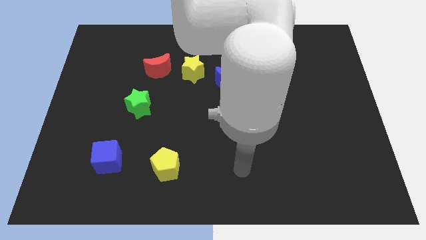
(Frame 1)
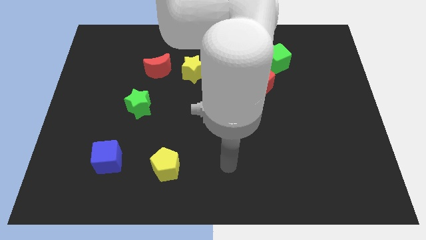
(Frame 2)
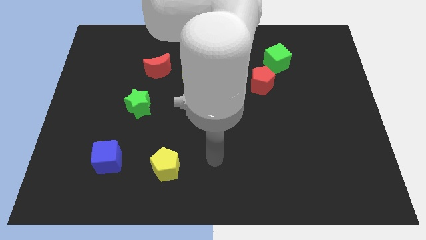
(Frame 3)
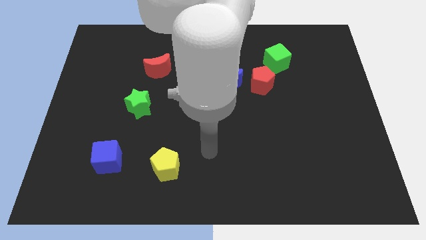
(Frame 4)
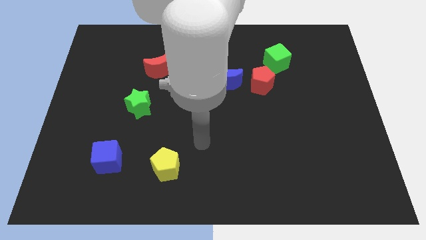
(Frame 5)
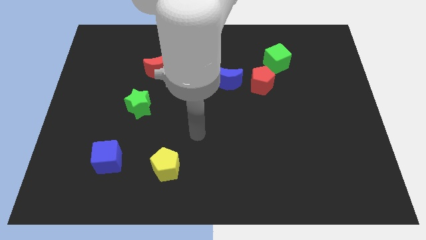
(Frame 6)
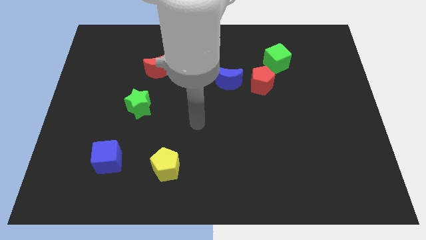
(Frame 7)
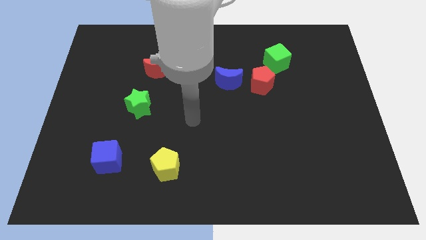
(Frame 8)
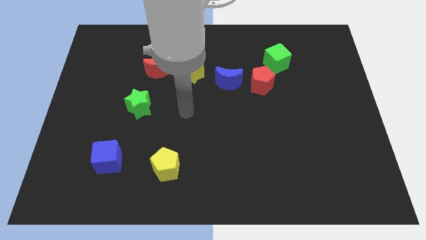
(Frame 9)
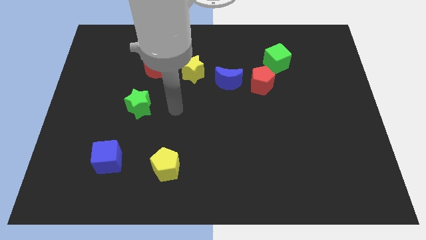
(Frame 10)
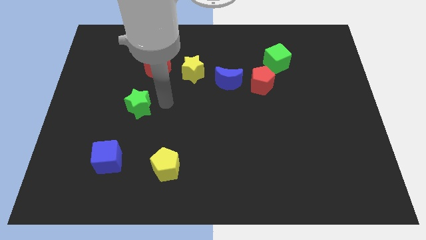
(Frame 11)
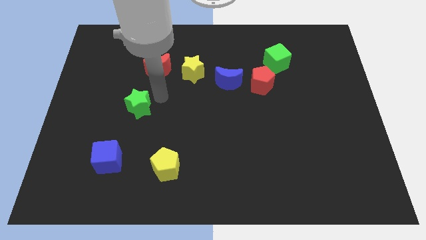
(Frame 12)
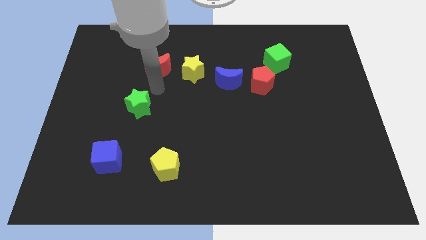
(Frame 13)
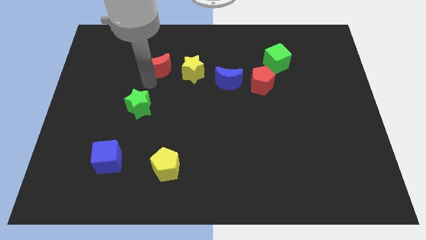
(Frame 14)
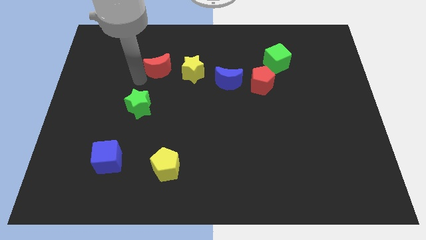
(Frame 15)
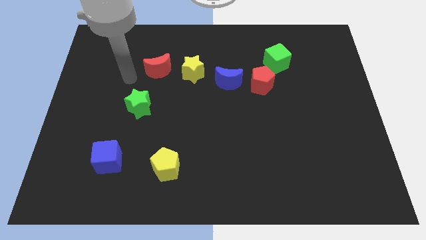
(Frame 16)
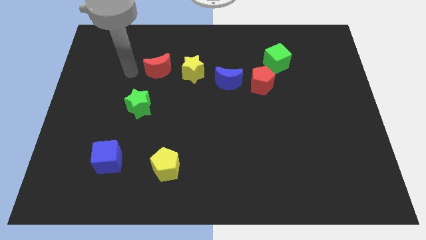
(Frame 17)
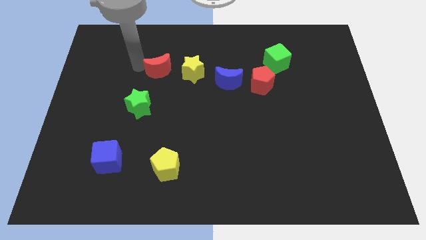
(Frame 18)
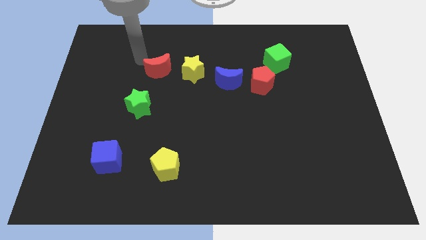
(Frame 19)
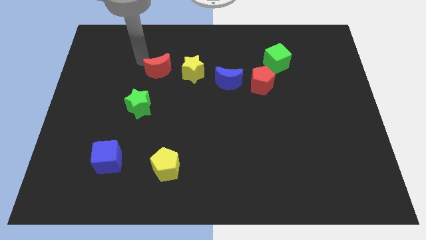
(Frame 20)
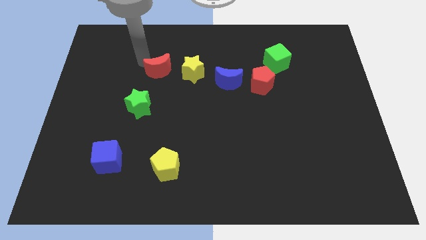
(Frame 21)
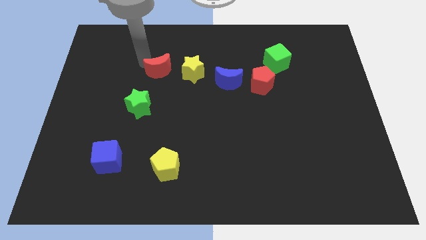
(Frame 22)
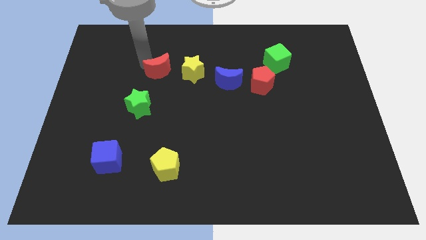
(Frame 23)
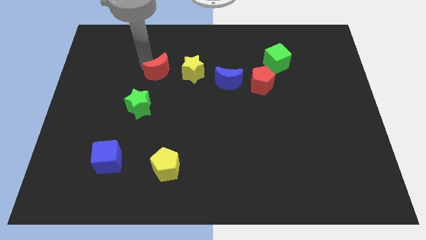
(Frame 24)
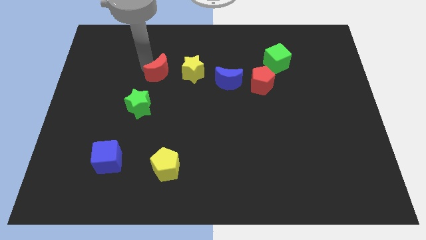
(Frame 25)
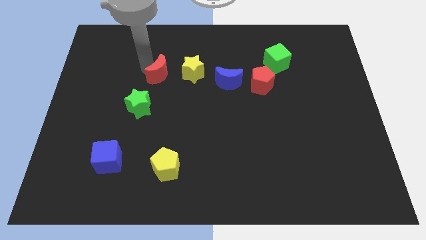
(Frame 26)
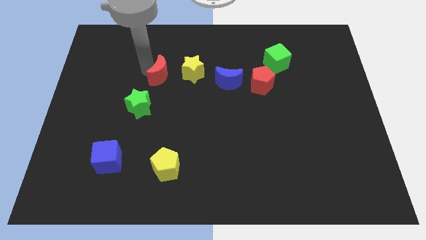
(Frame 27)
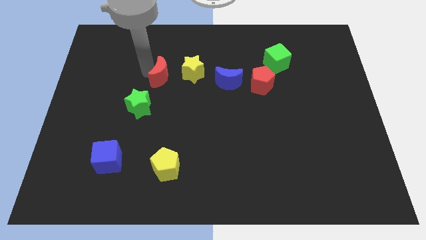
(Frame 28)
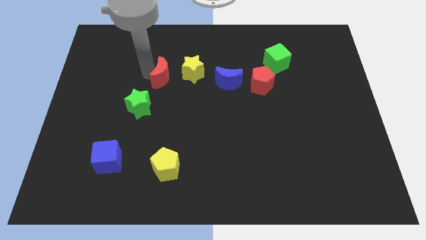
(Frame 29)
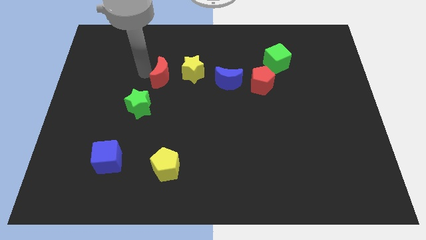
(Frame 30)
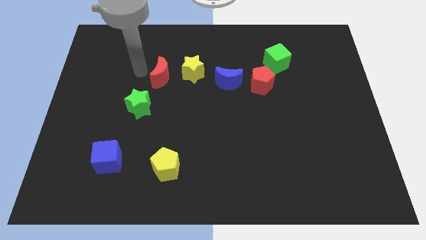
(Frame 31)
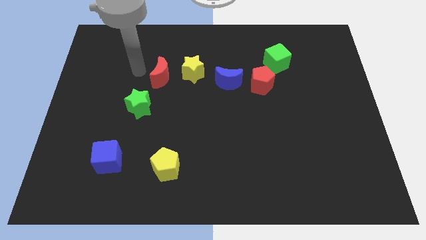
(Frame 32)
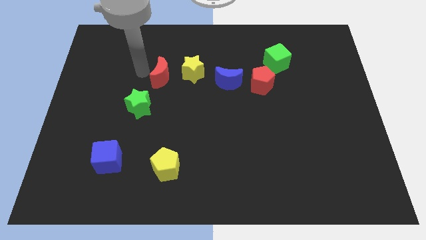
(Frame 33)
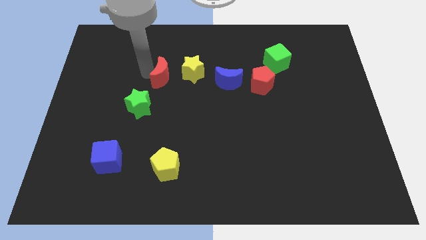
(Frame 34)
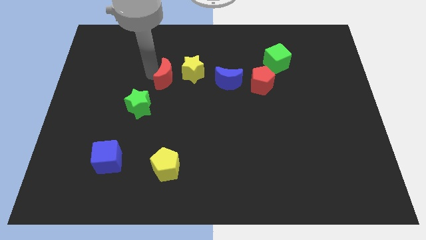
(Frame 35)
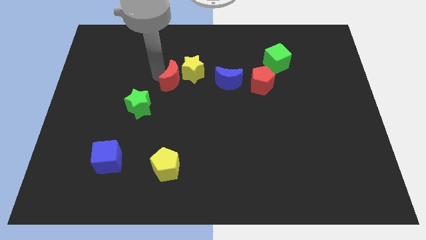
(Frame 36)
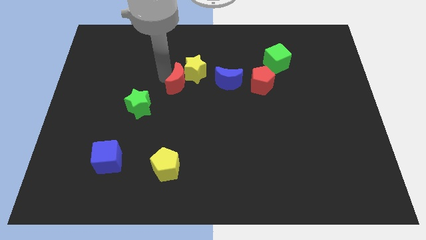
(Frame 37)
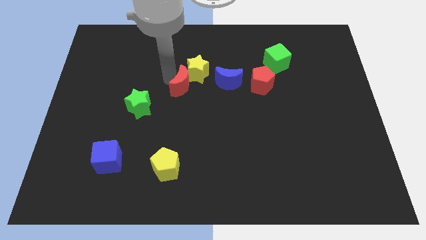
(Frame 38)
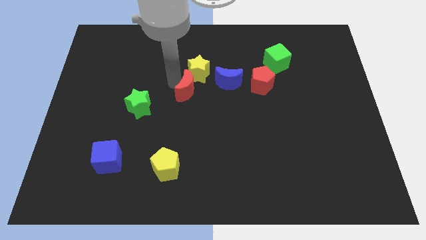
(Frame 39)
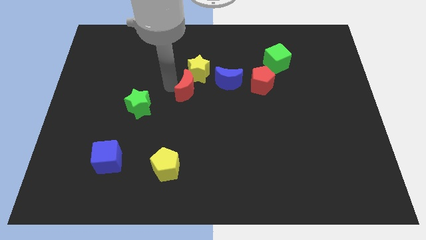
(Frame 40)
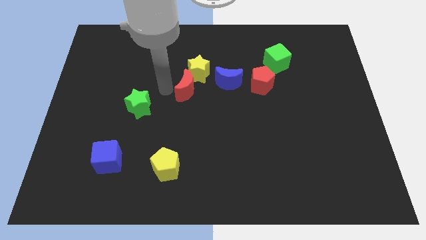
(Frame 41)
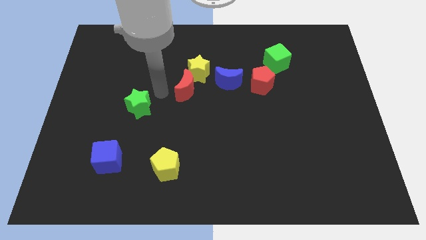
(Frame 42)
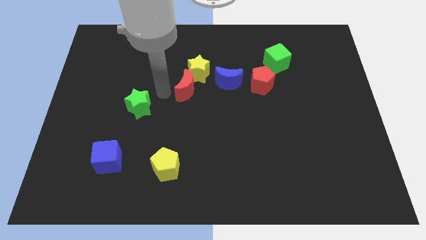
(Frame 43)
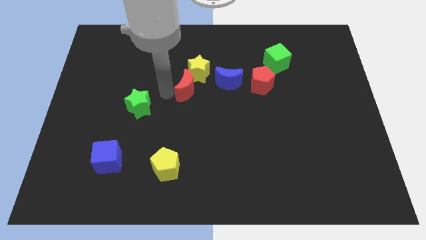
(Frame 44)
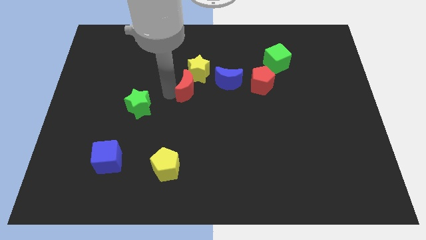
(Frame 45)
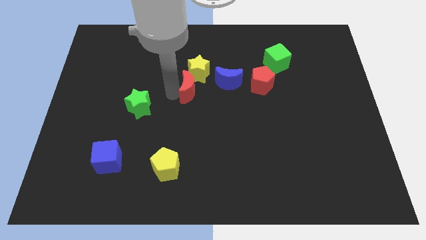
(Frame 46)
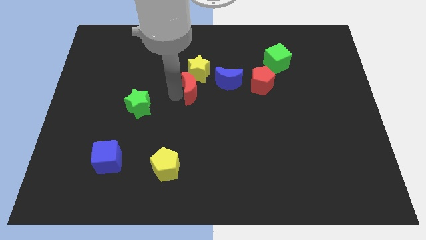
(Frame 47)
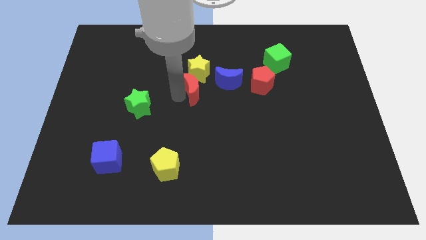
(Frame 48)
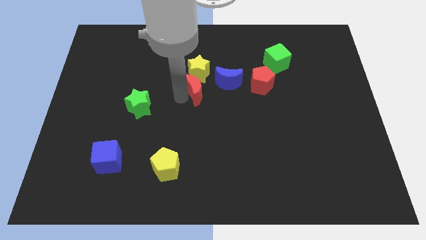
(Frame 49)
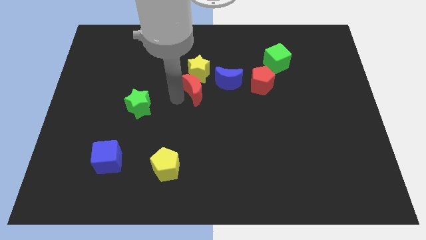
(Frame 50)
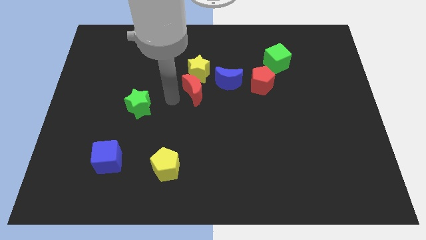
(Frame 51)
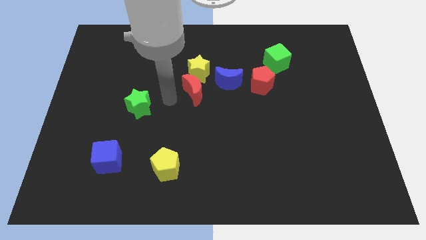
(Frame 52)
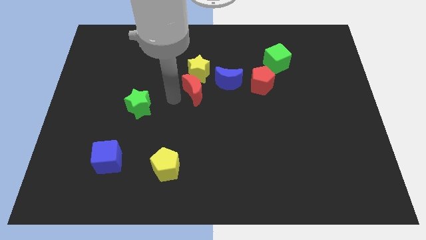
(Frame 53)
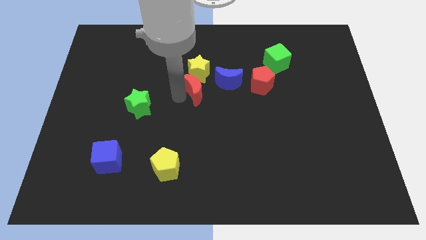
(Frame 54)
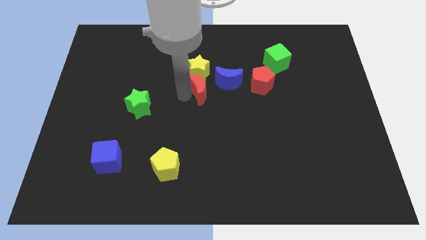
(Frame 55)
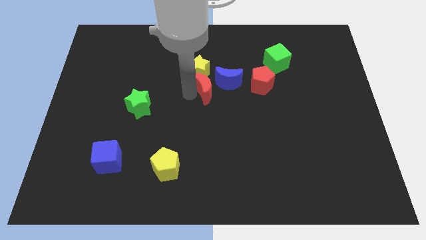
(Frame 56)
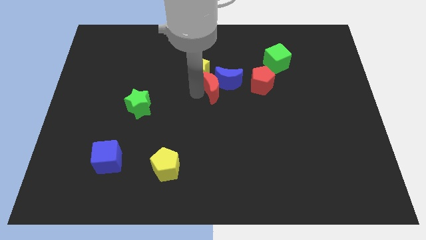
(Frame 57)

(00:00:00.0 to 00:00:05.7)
move the red moon to the blue moon
